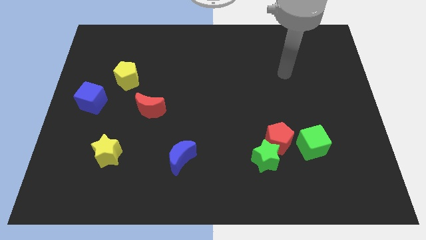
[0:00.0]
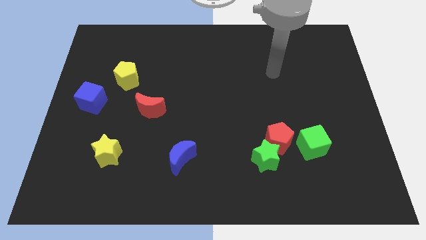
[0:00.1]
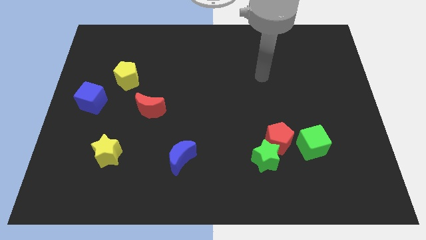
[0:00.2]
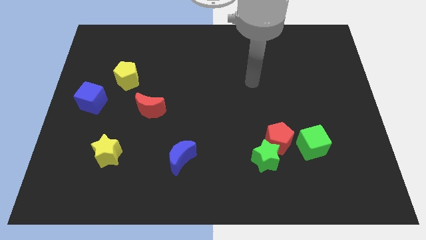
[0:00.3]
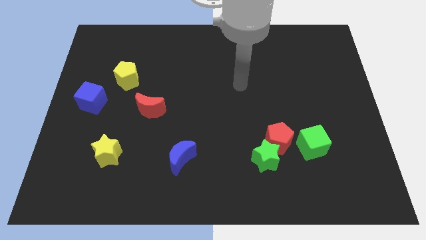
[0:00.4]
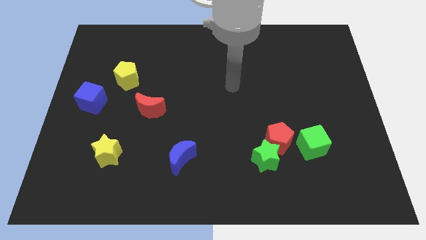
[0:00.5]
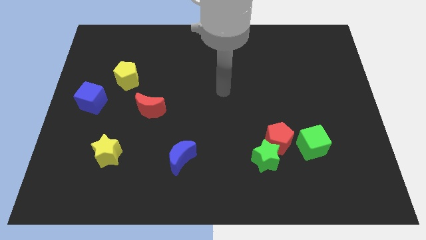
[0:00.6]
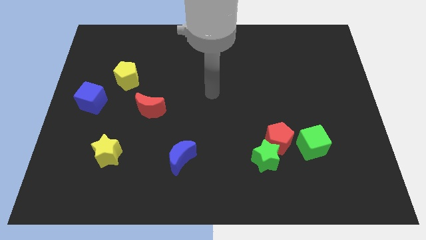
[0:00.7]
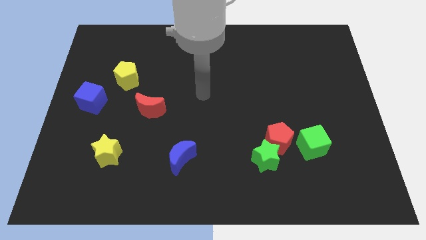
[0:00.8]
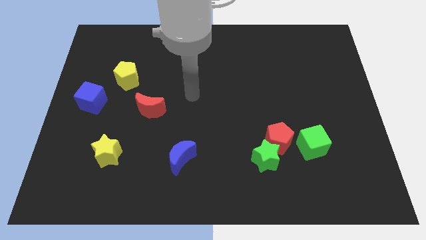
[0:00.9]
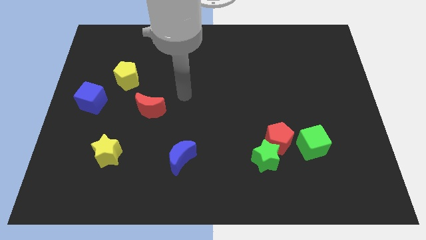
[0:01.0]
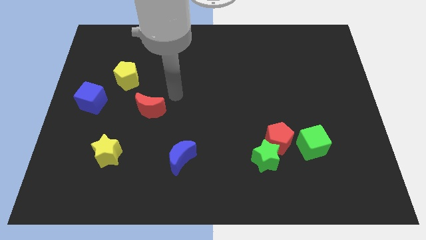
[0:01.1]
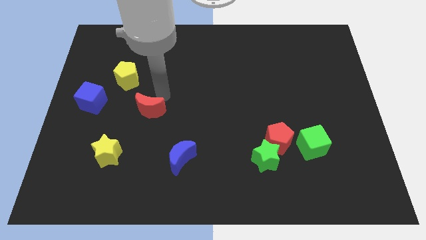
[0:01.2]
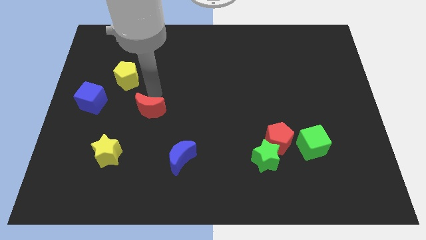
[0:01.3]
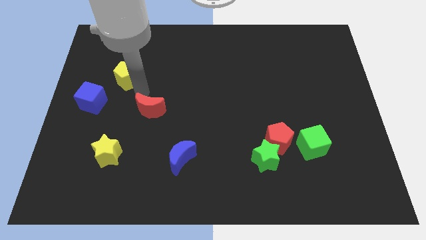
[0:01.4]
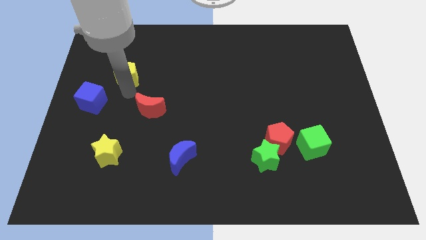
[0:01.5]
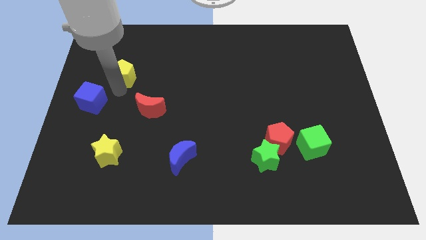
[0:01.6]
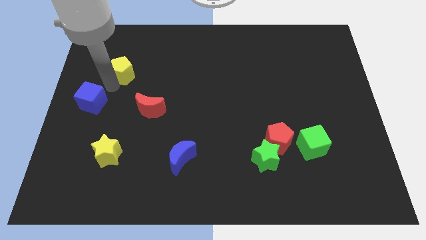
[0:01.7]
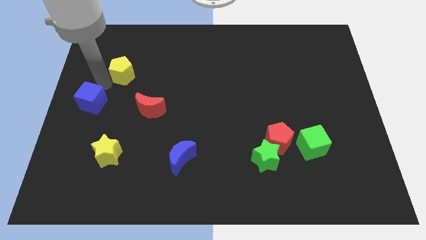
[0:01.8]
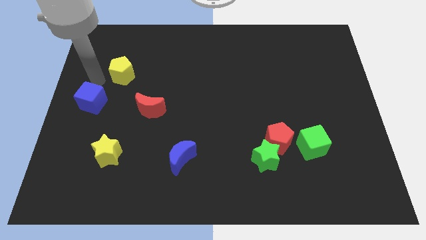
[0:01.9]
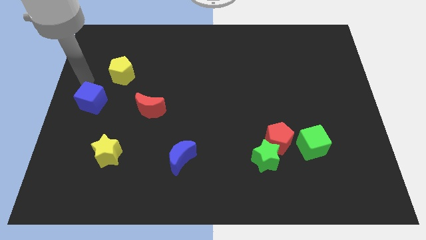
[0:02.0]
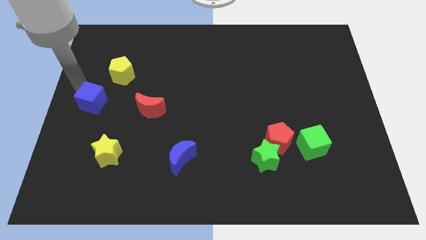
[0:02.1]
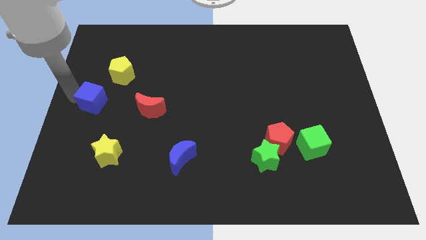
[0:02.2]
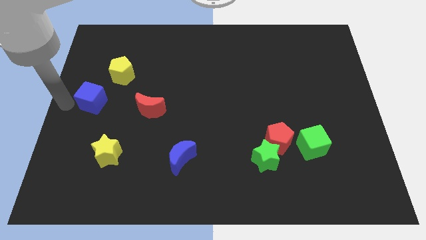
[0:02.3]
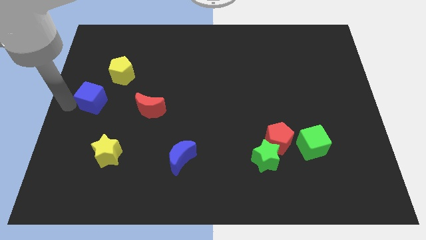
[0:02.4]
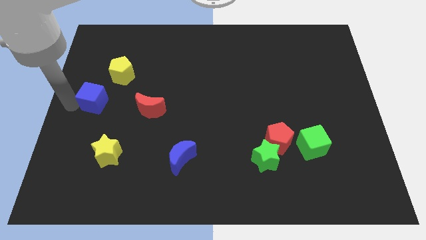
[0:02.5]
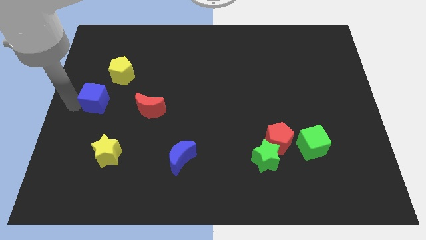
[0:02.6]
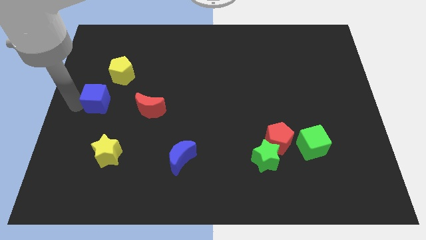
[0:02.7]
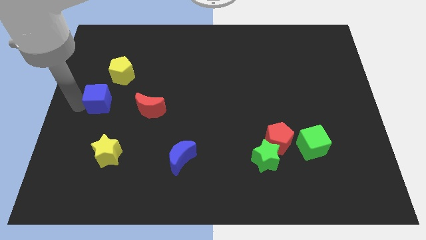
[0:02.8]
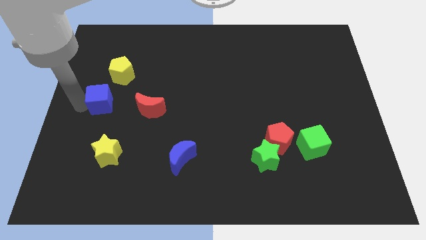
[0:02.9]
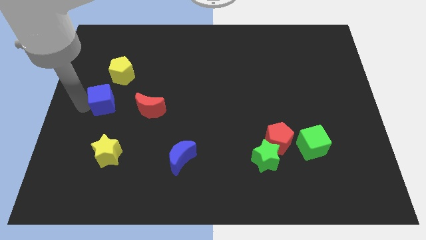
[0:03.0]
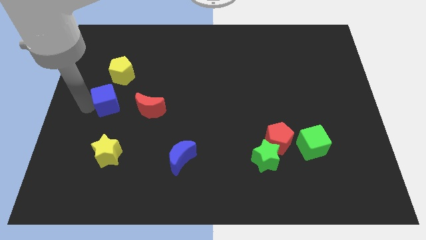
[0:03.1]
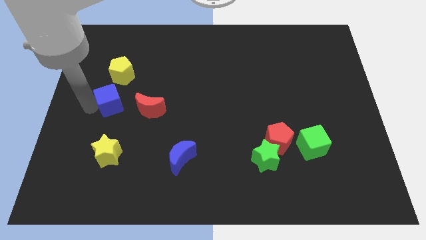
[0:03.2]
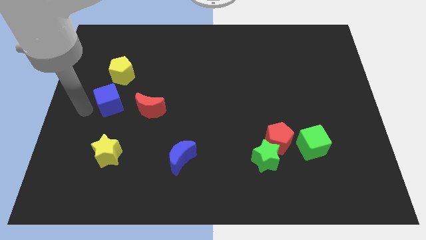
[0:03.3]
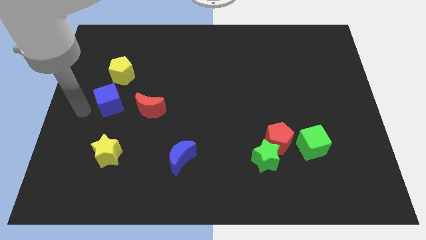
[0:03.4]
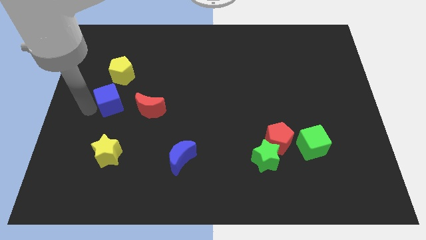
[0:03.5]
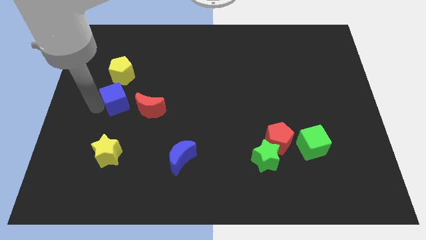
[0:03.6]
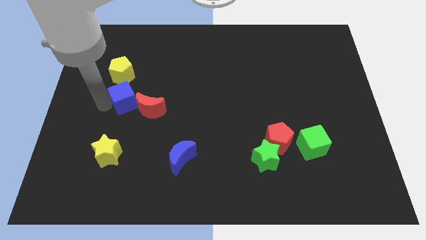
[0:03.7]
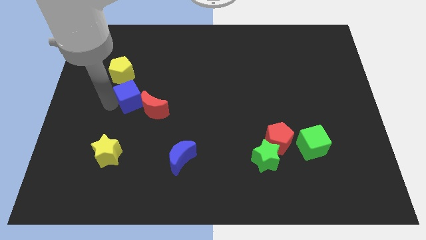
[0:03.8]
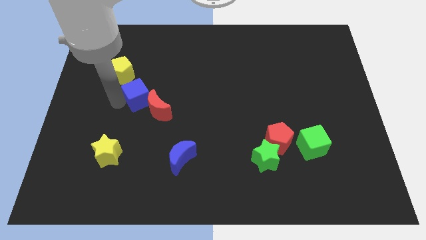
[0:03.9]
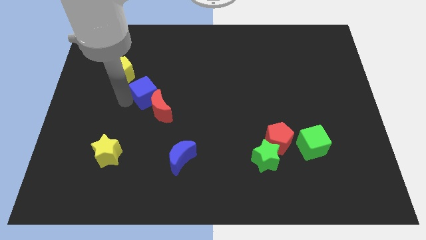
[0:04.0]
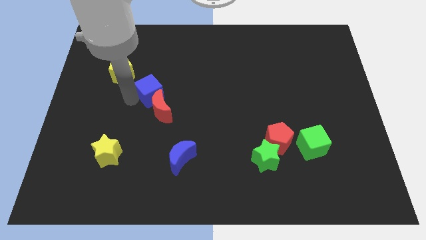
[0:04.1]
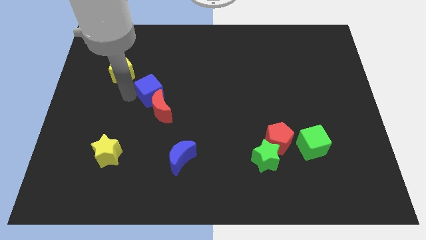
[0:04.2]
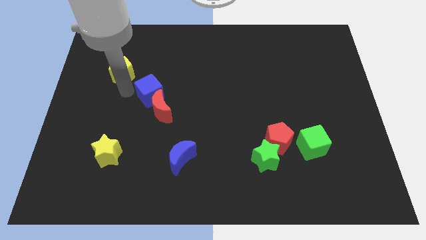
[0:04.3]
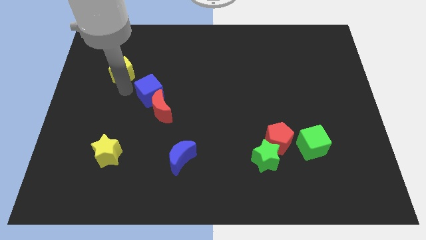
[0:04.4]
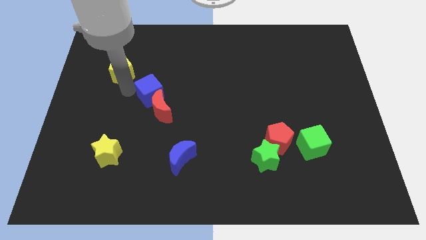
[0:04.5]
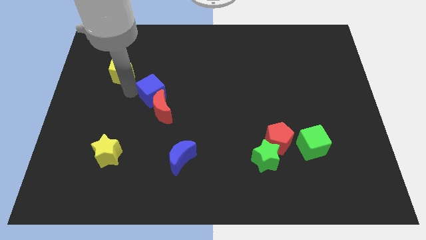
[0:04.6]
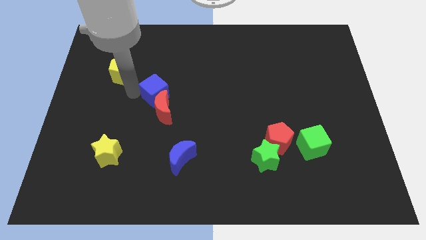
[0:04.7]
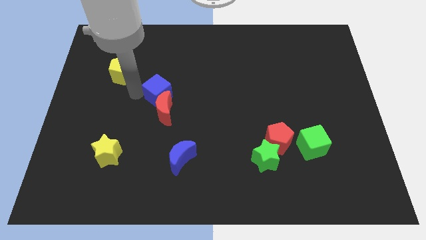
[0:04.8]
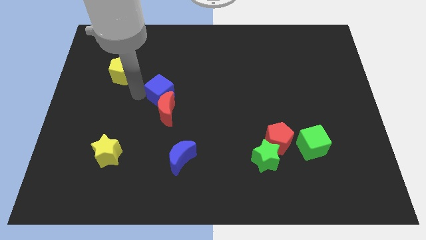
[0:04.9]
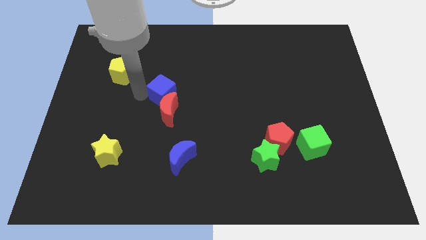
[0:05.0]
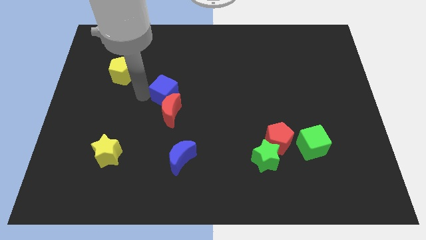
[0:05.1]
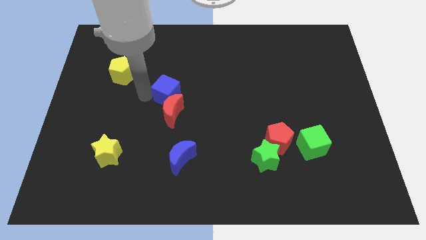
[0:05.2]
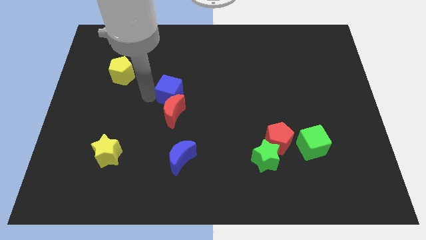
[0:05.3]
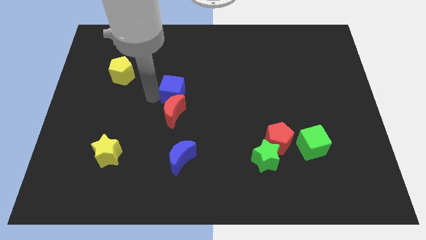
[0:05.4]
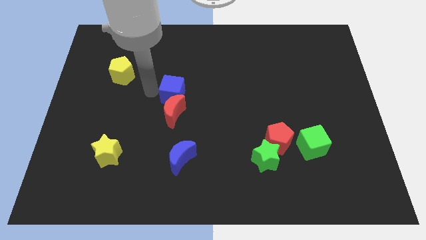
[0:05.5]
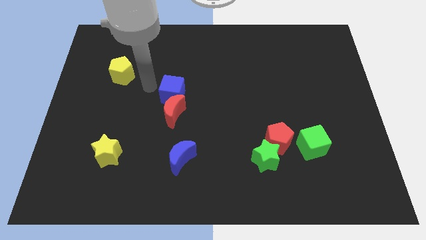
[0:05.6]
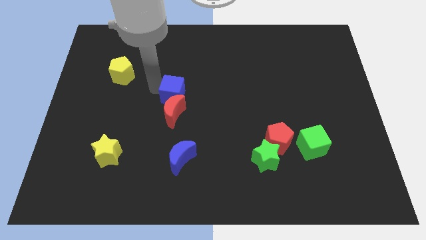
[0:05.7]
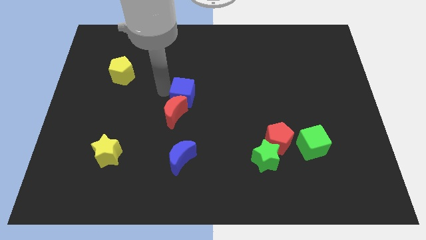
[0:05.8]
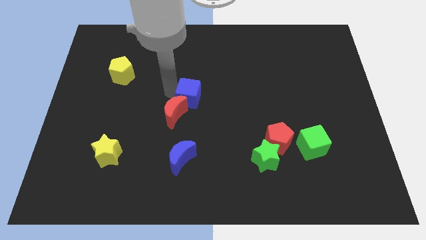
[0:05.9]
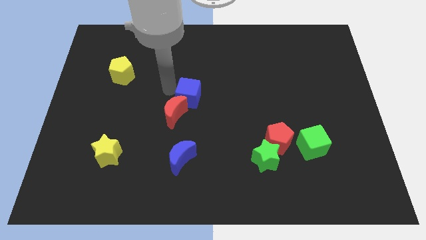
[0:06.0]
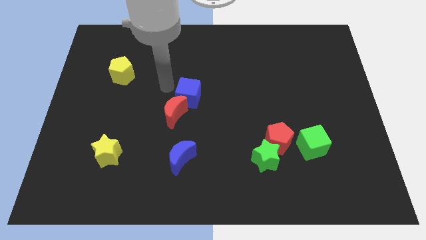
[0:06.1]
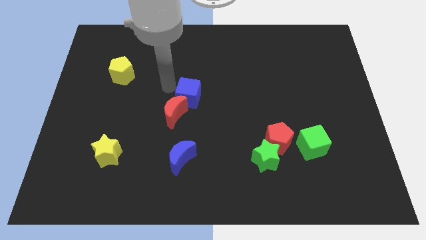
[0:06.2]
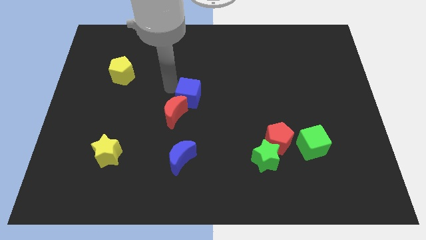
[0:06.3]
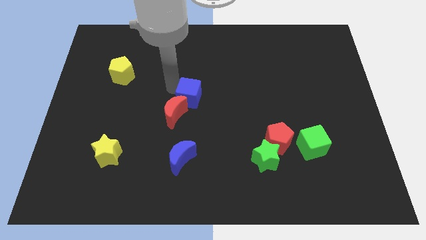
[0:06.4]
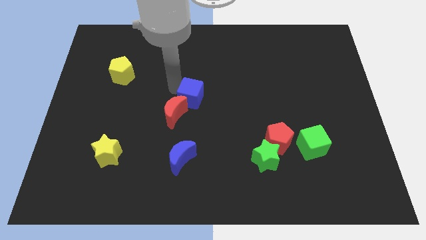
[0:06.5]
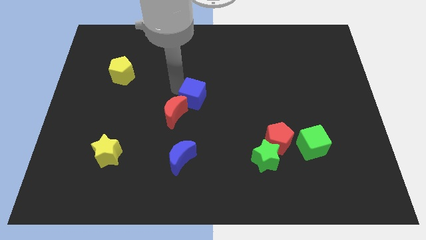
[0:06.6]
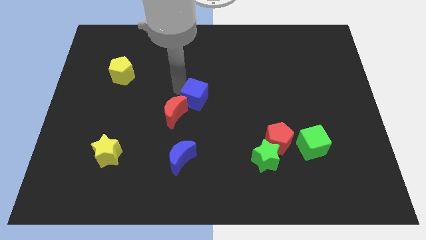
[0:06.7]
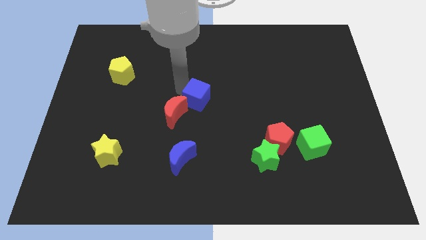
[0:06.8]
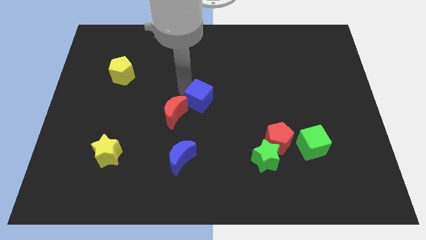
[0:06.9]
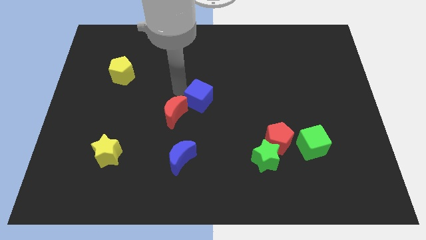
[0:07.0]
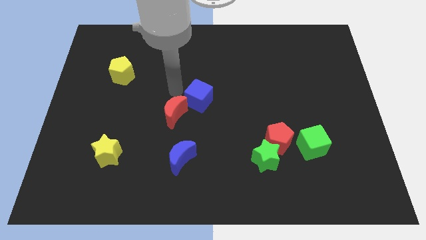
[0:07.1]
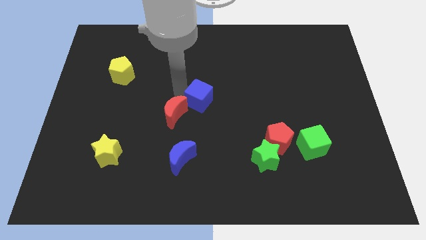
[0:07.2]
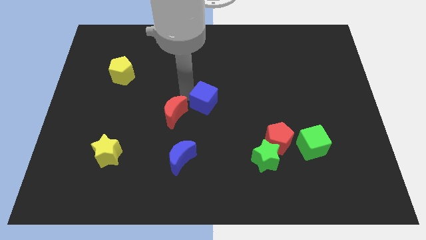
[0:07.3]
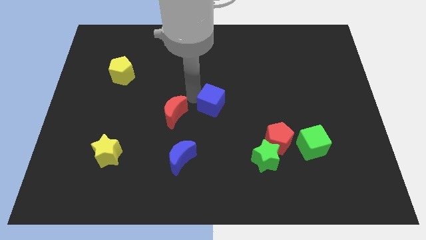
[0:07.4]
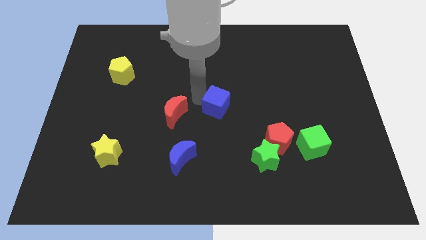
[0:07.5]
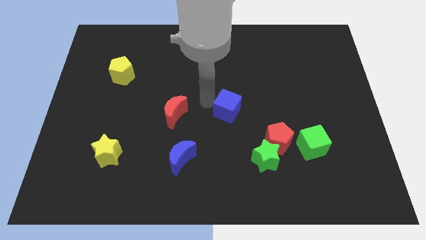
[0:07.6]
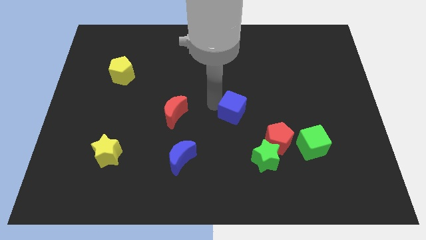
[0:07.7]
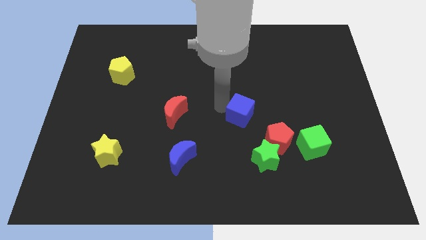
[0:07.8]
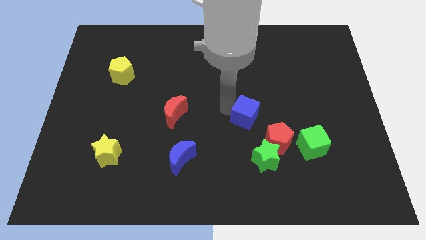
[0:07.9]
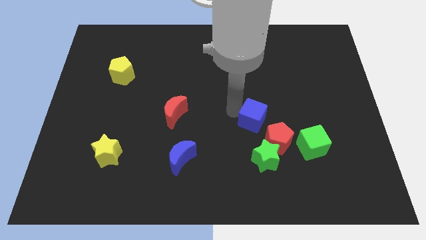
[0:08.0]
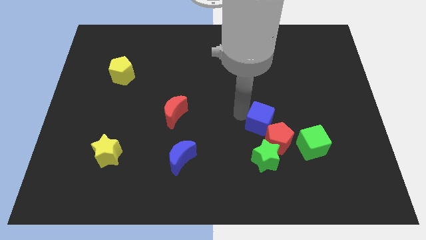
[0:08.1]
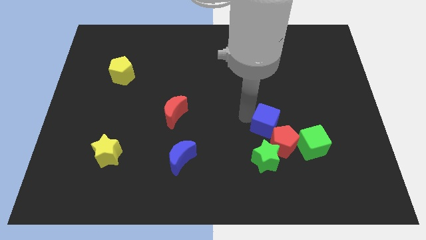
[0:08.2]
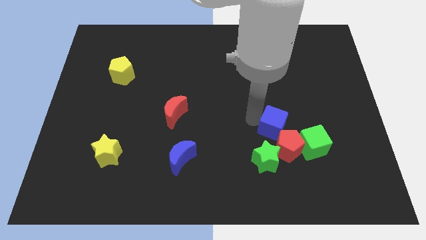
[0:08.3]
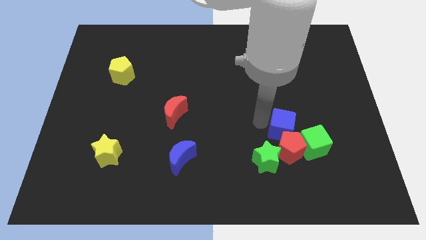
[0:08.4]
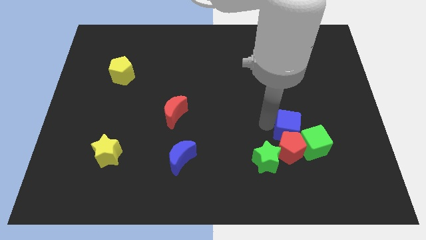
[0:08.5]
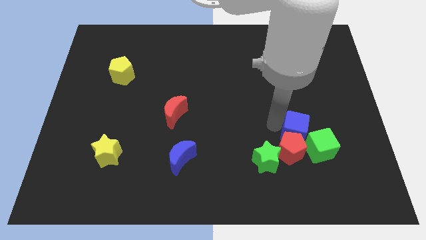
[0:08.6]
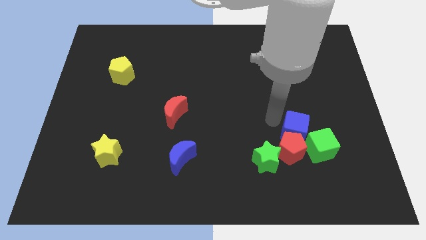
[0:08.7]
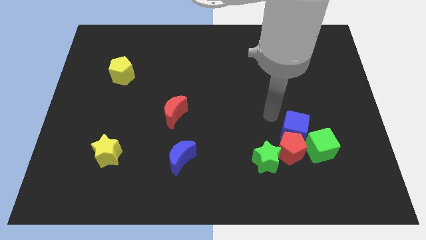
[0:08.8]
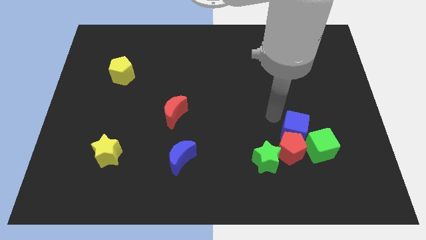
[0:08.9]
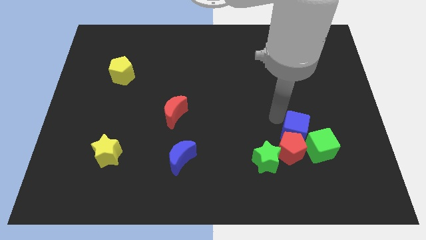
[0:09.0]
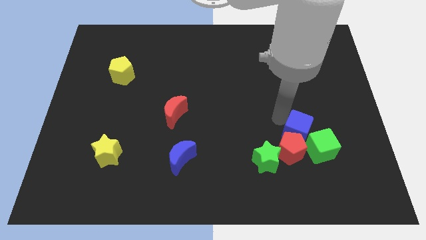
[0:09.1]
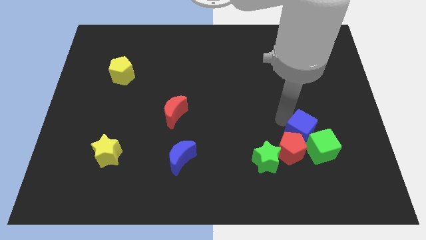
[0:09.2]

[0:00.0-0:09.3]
move the blue cube to the green cube
